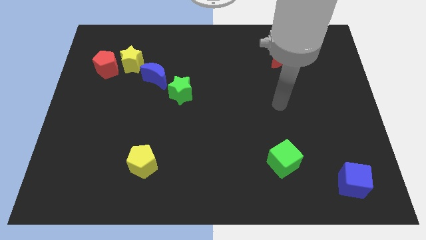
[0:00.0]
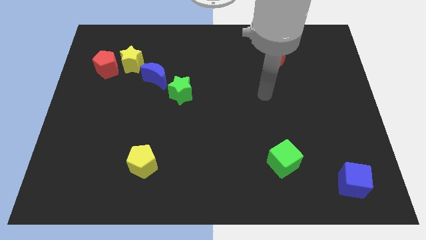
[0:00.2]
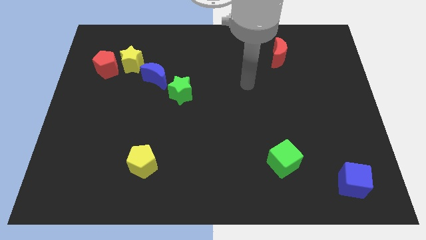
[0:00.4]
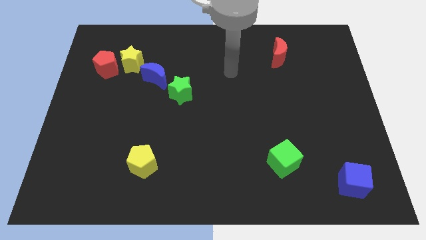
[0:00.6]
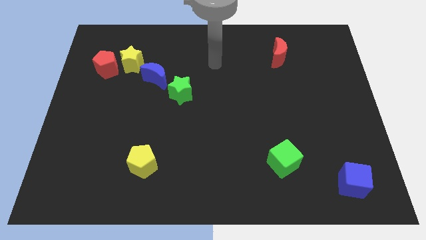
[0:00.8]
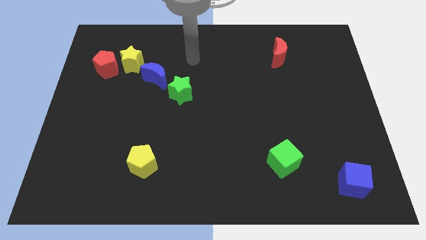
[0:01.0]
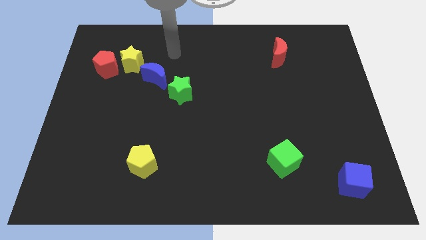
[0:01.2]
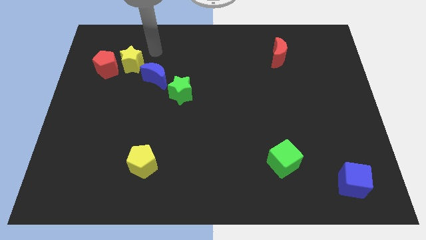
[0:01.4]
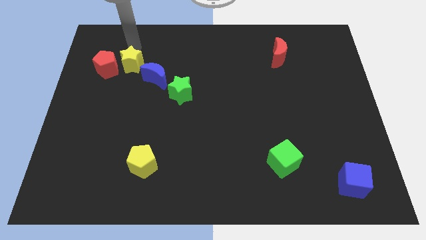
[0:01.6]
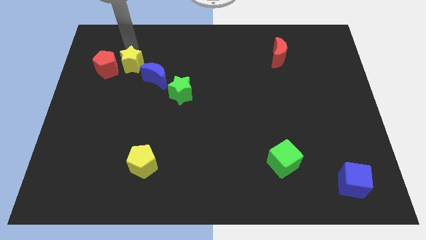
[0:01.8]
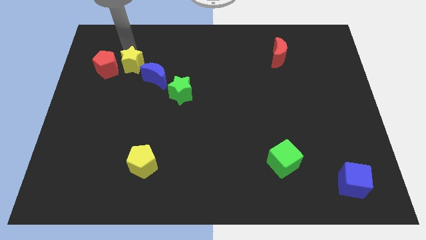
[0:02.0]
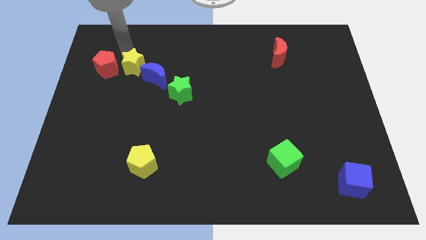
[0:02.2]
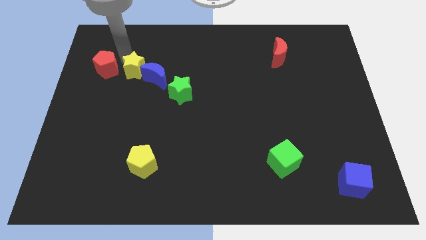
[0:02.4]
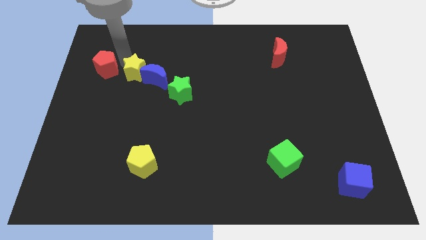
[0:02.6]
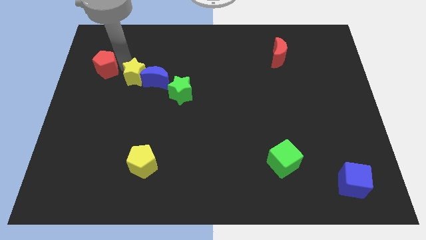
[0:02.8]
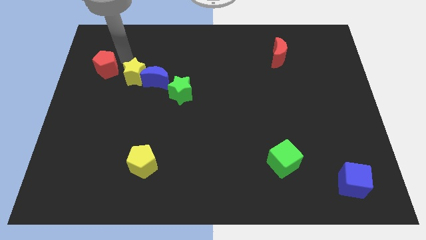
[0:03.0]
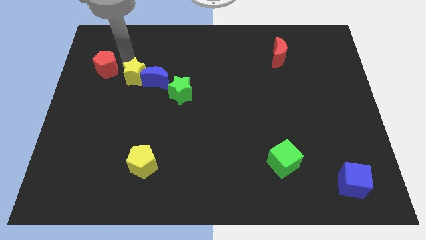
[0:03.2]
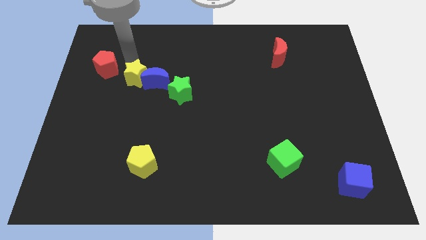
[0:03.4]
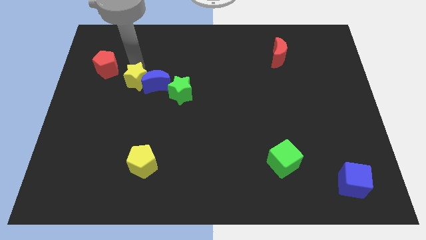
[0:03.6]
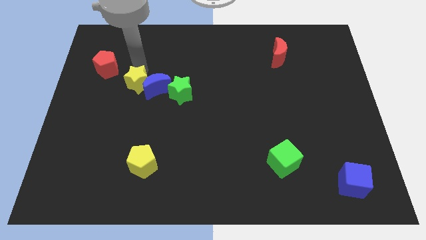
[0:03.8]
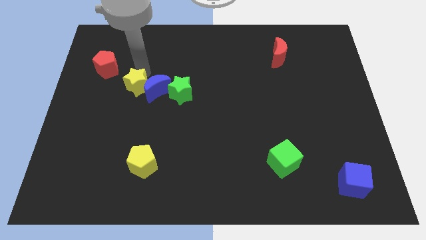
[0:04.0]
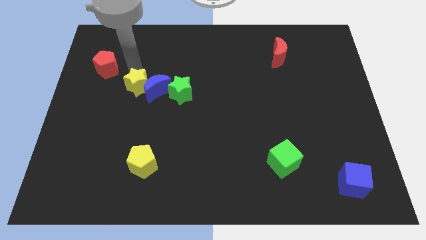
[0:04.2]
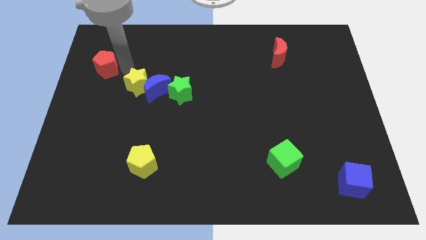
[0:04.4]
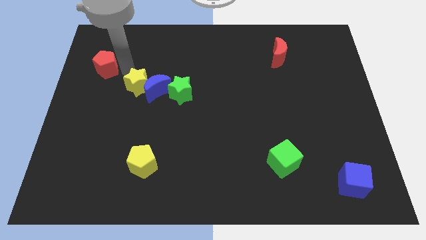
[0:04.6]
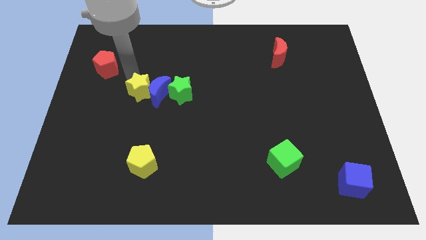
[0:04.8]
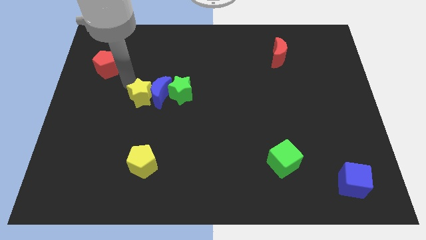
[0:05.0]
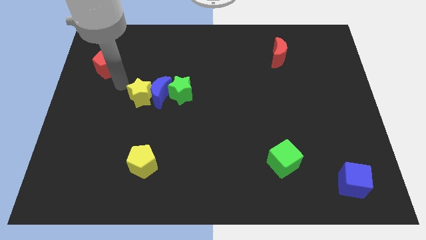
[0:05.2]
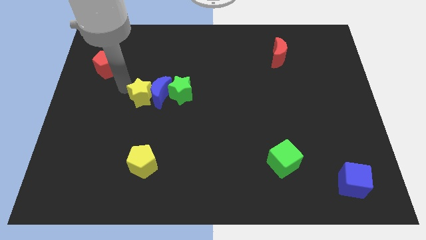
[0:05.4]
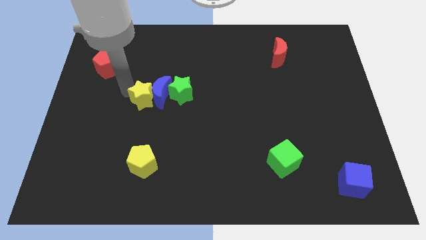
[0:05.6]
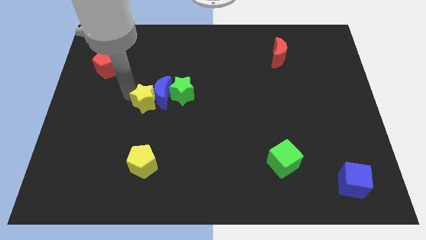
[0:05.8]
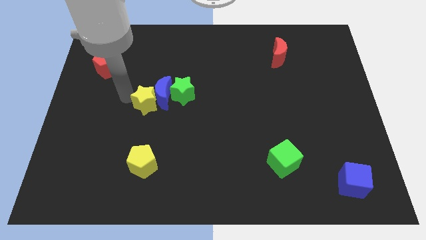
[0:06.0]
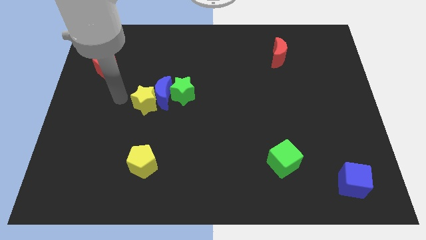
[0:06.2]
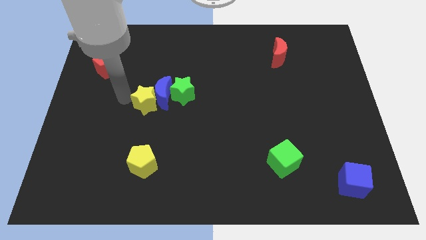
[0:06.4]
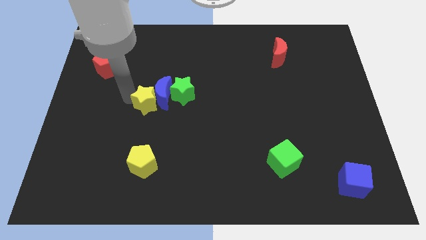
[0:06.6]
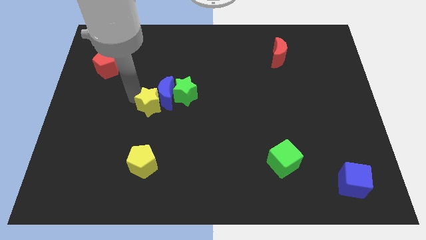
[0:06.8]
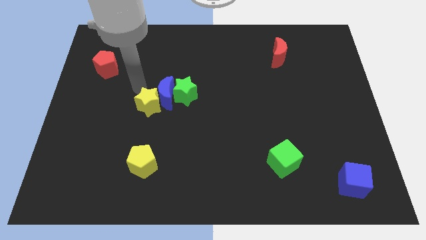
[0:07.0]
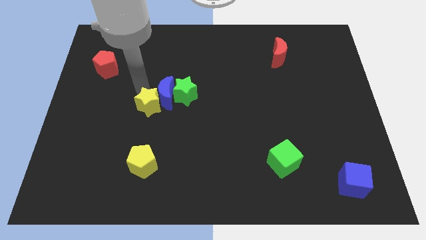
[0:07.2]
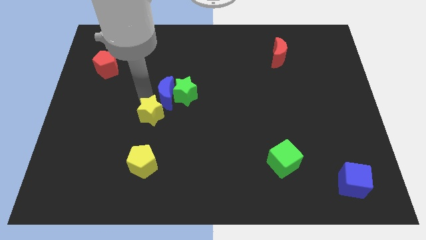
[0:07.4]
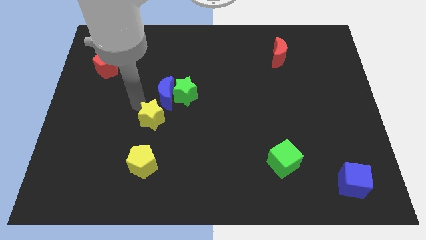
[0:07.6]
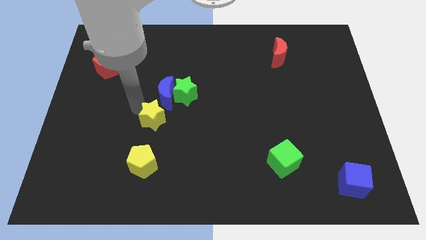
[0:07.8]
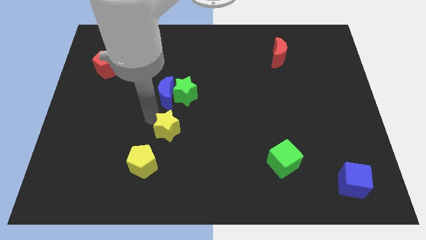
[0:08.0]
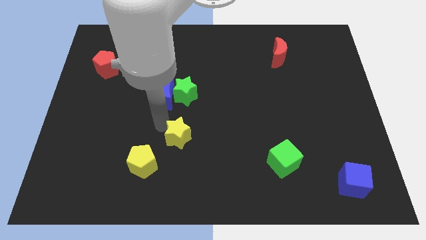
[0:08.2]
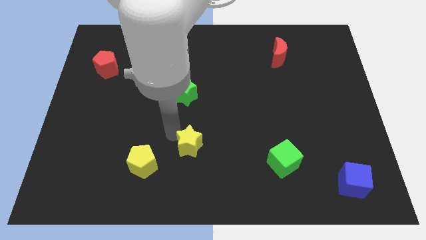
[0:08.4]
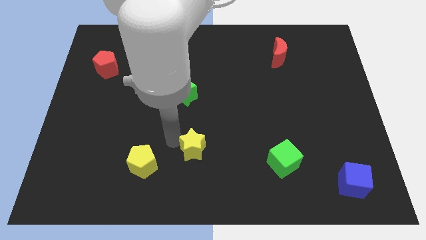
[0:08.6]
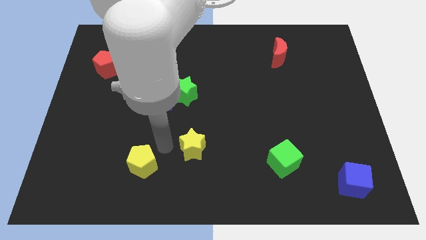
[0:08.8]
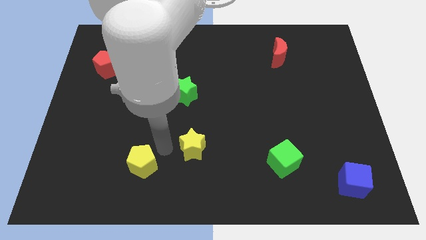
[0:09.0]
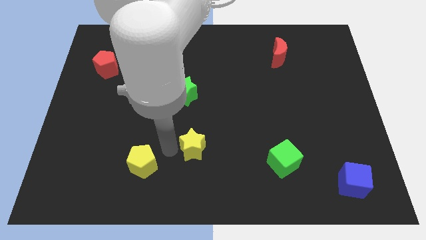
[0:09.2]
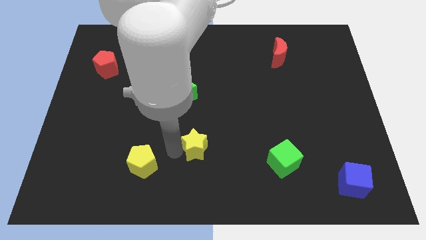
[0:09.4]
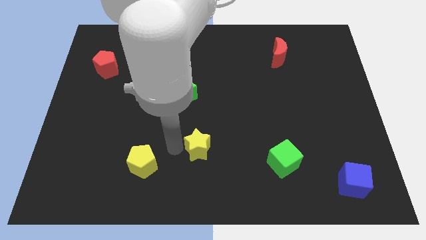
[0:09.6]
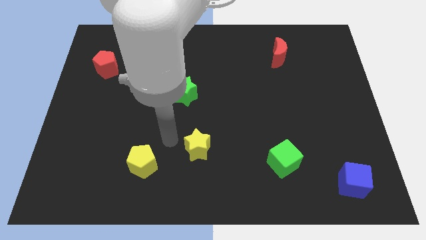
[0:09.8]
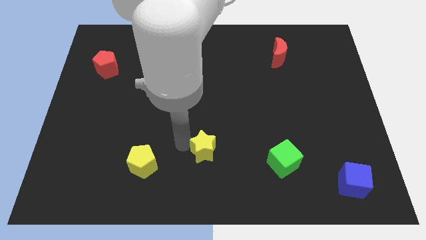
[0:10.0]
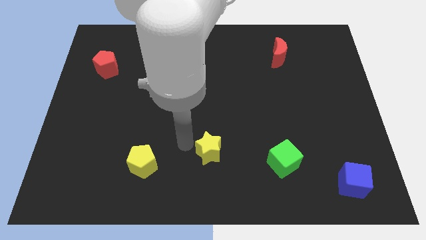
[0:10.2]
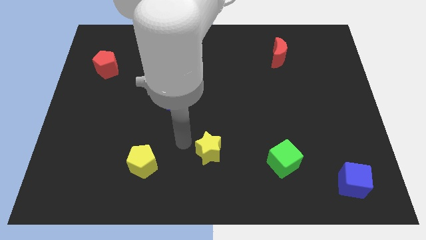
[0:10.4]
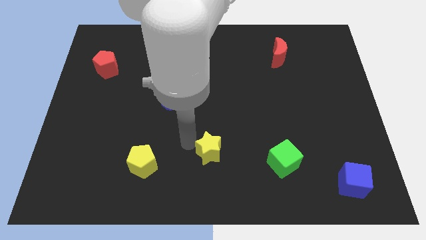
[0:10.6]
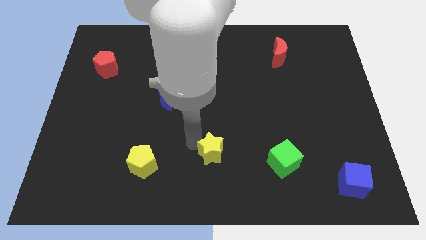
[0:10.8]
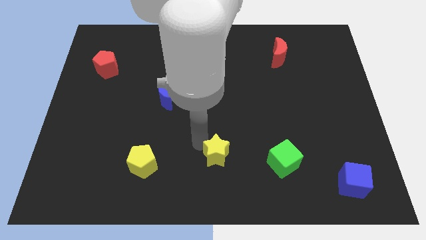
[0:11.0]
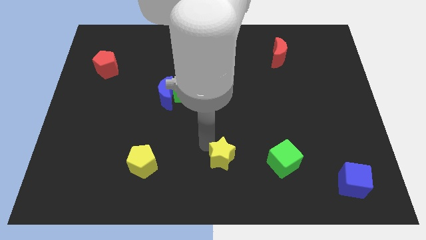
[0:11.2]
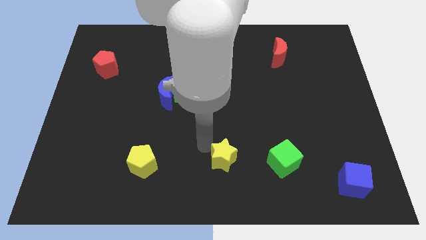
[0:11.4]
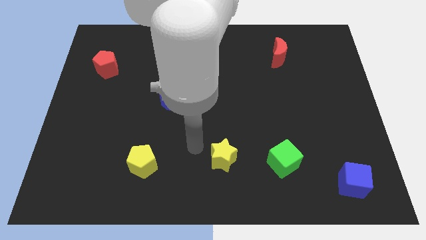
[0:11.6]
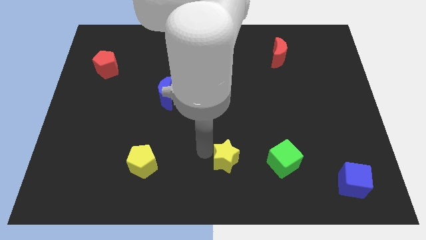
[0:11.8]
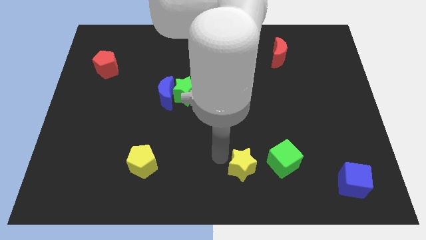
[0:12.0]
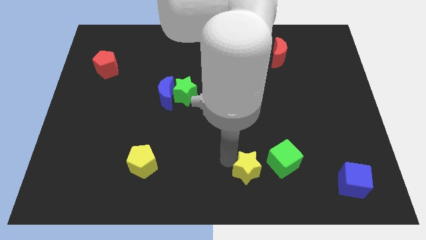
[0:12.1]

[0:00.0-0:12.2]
put the yellow star diagonally down and to the left of the green cube

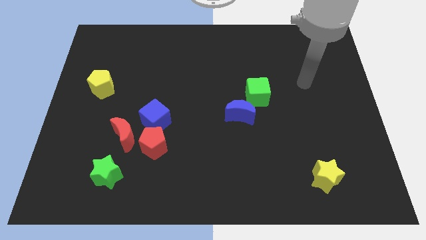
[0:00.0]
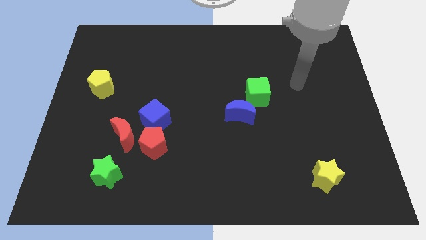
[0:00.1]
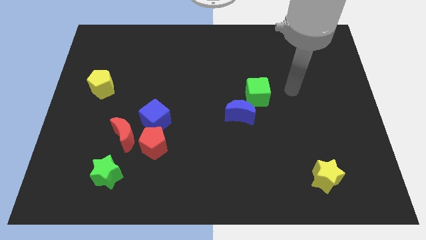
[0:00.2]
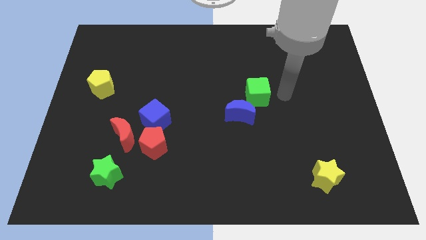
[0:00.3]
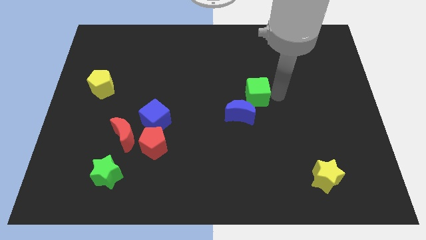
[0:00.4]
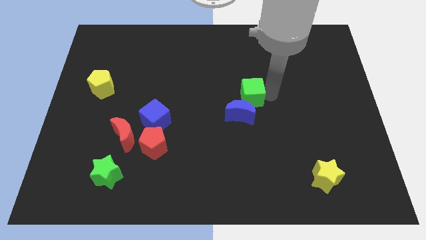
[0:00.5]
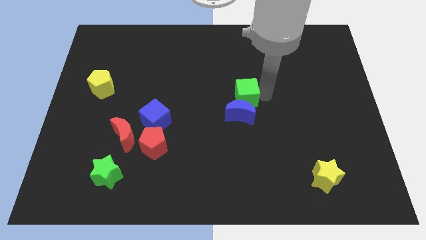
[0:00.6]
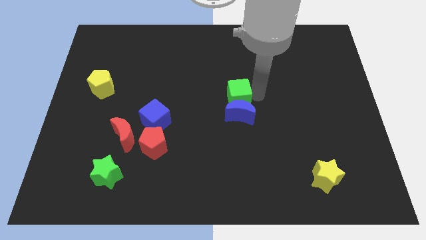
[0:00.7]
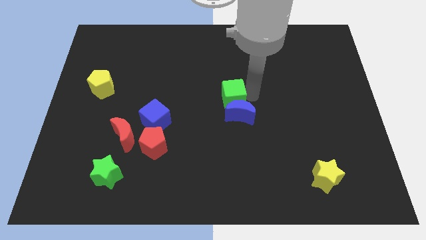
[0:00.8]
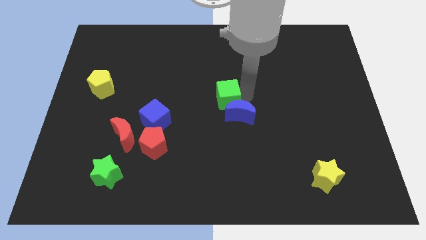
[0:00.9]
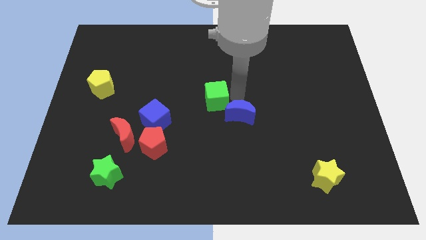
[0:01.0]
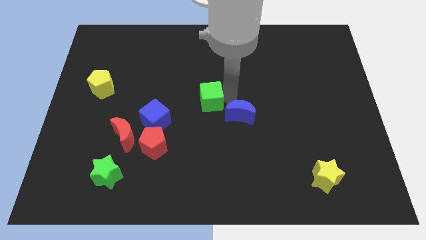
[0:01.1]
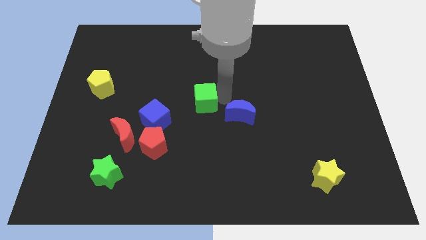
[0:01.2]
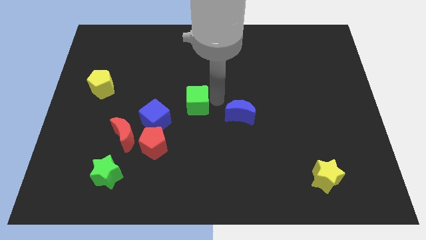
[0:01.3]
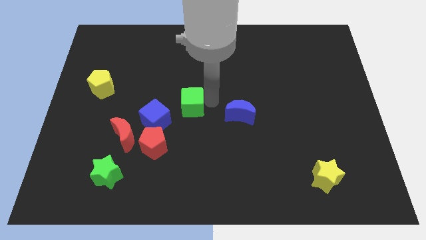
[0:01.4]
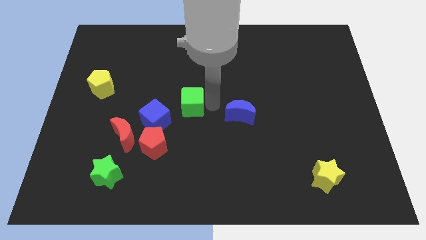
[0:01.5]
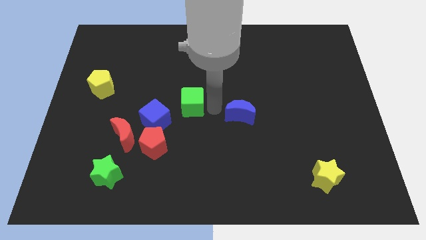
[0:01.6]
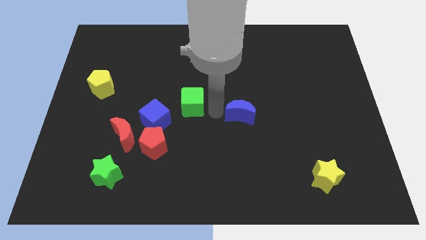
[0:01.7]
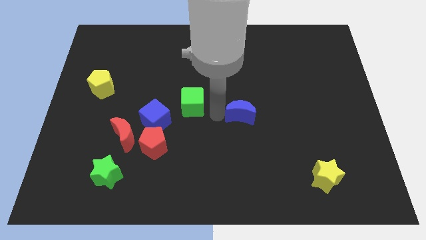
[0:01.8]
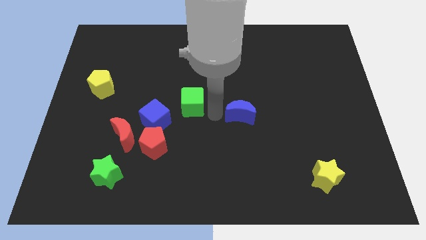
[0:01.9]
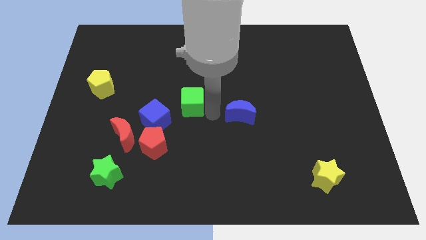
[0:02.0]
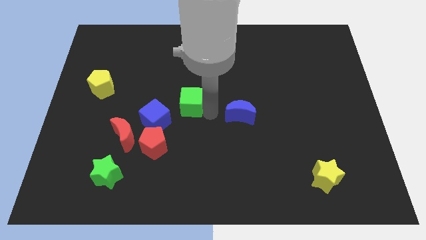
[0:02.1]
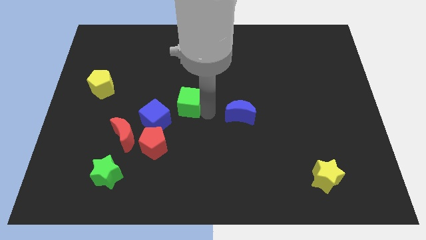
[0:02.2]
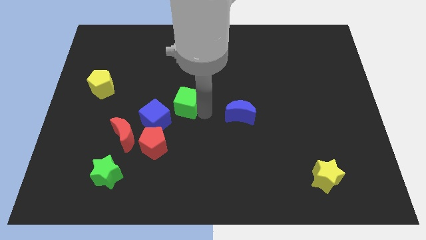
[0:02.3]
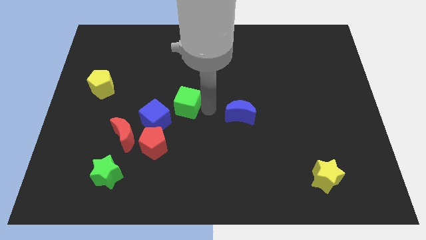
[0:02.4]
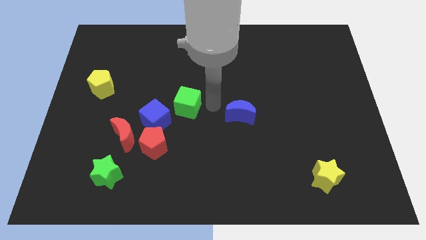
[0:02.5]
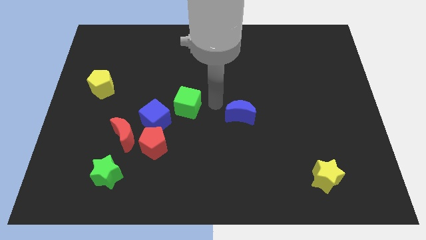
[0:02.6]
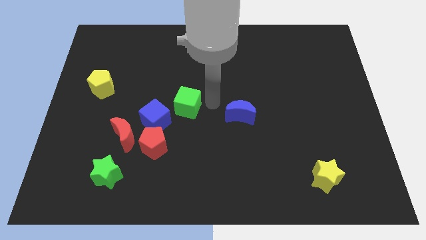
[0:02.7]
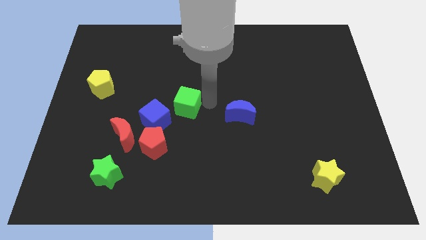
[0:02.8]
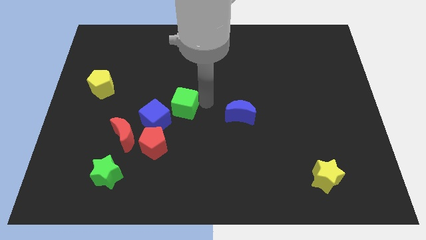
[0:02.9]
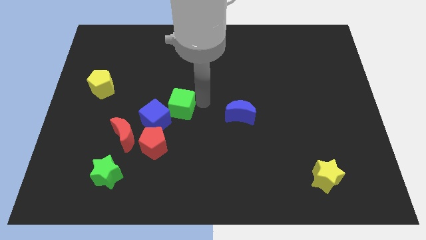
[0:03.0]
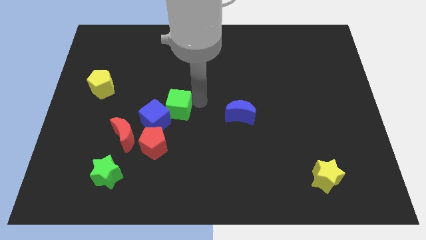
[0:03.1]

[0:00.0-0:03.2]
move the green cube to the top of the red pentagon
